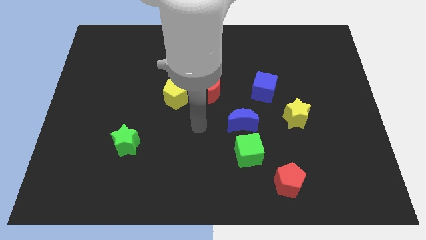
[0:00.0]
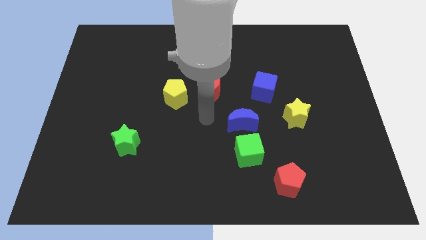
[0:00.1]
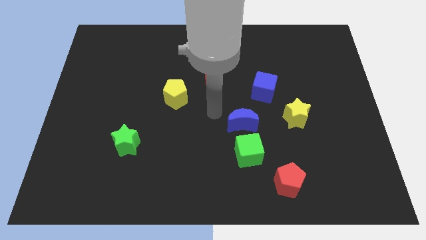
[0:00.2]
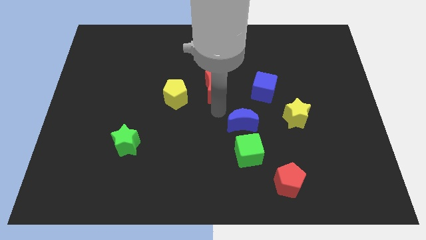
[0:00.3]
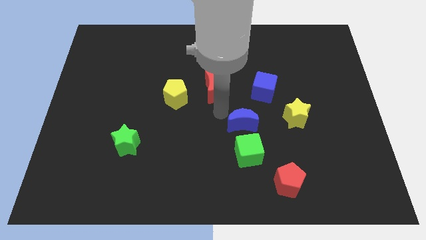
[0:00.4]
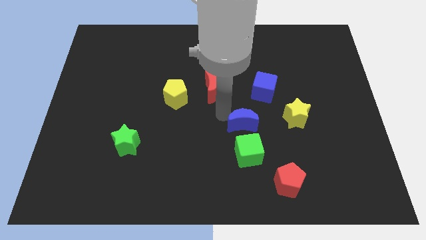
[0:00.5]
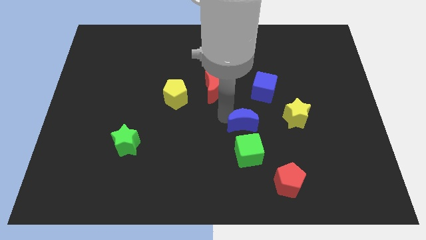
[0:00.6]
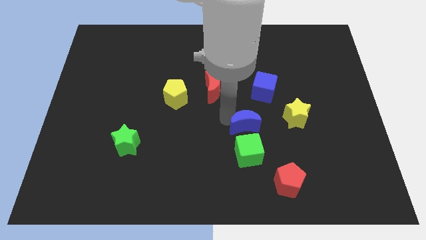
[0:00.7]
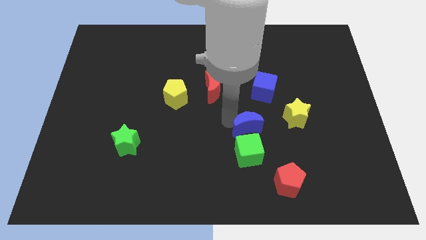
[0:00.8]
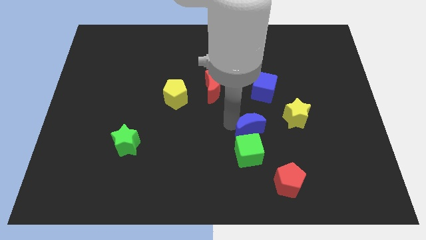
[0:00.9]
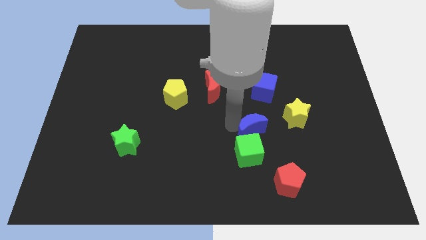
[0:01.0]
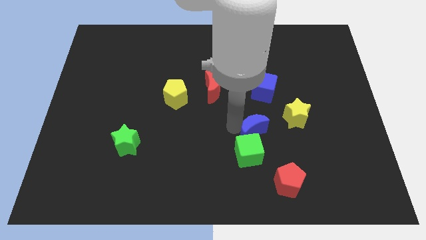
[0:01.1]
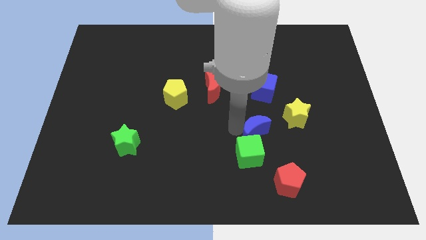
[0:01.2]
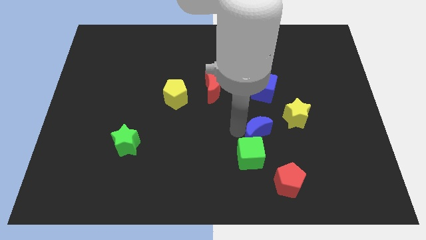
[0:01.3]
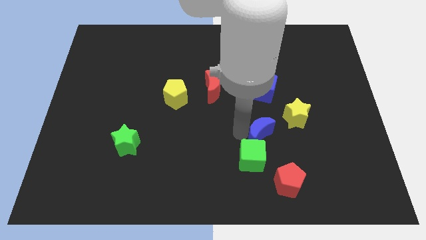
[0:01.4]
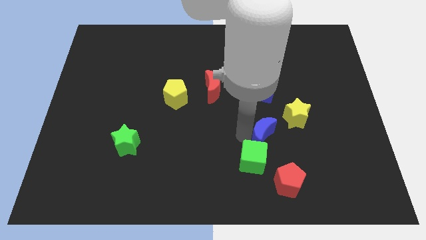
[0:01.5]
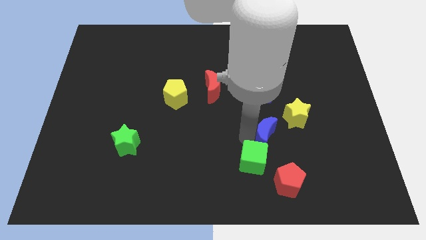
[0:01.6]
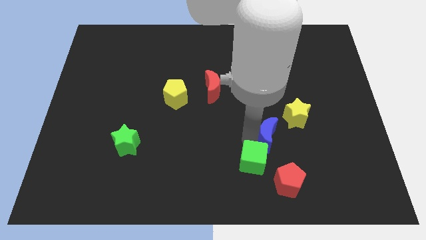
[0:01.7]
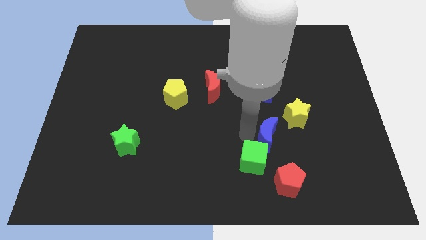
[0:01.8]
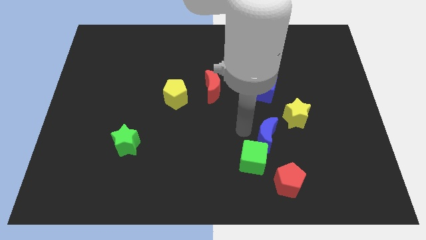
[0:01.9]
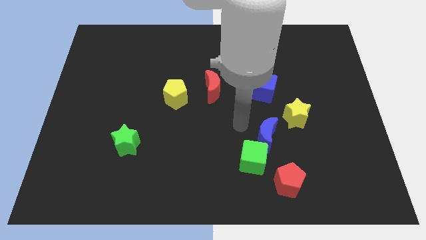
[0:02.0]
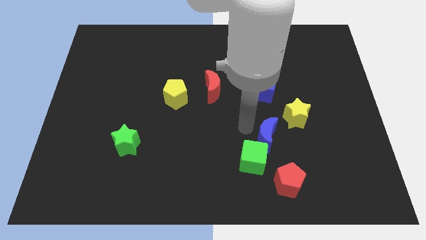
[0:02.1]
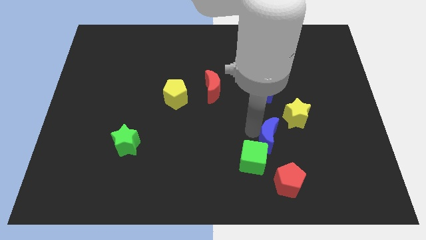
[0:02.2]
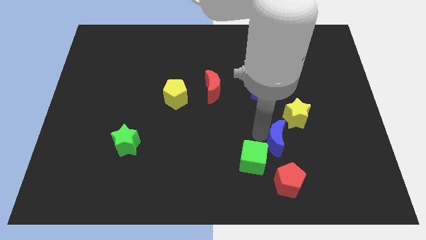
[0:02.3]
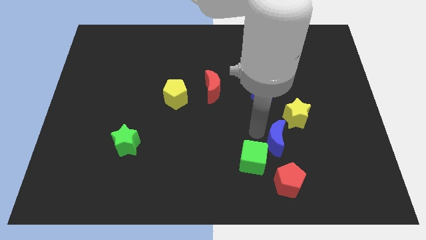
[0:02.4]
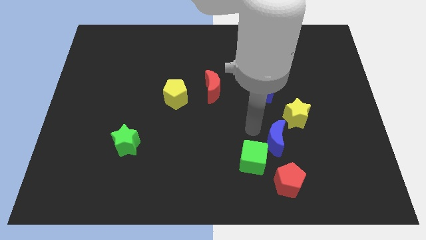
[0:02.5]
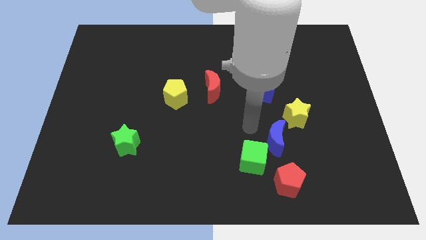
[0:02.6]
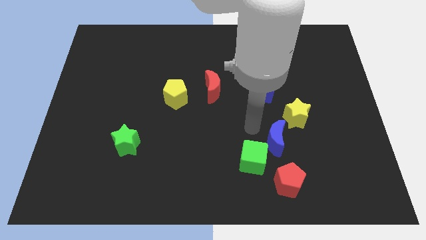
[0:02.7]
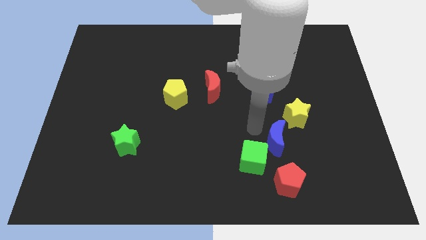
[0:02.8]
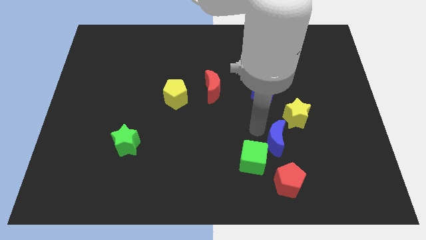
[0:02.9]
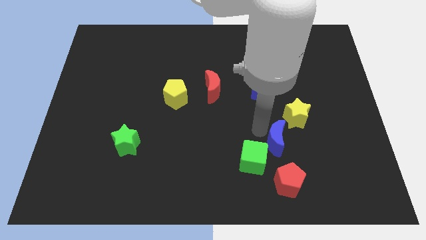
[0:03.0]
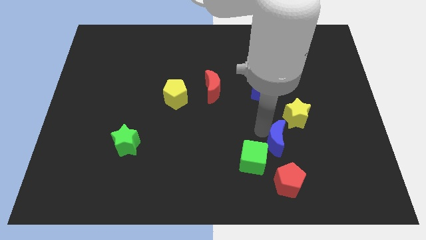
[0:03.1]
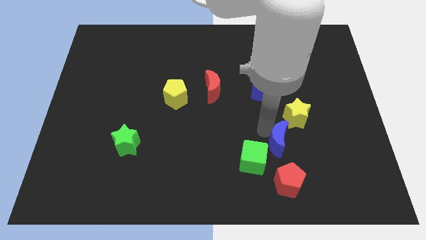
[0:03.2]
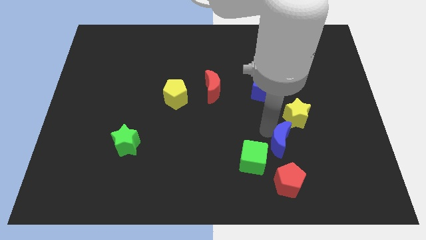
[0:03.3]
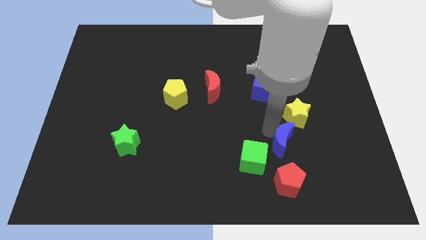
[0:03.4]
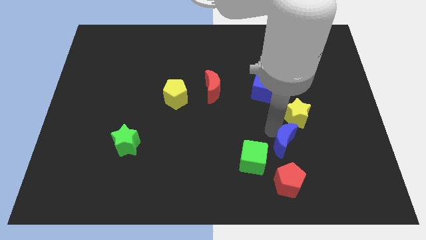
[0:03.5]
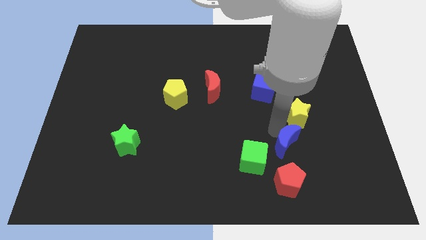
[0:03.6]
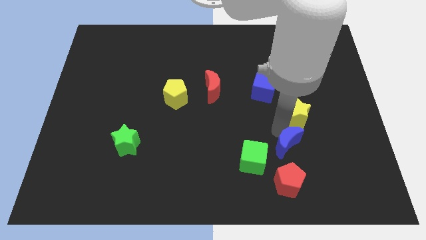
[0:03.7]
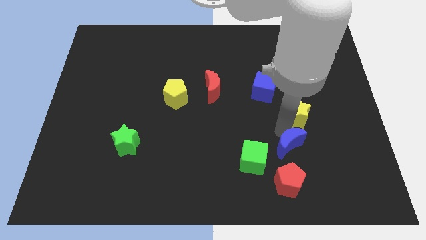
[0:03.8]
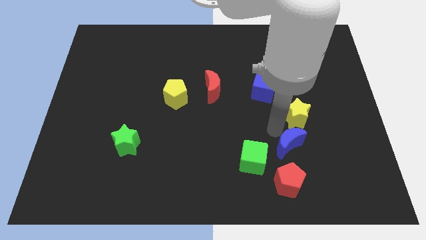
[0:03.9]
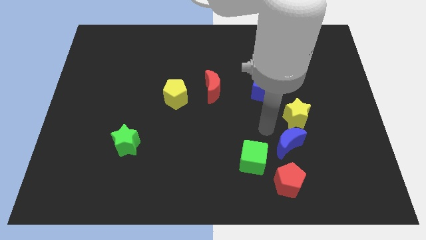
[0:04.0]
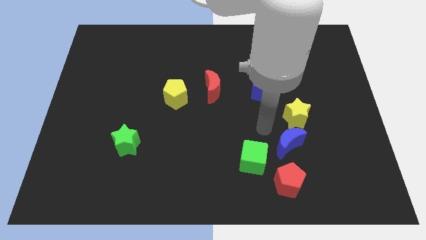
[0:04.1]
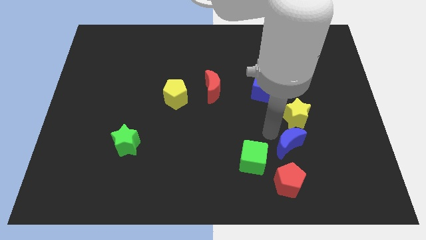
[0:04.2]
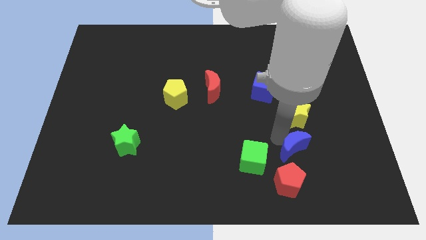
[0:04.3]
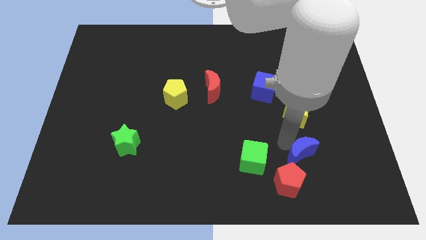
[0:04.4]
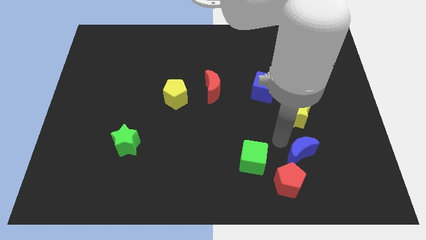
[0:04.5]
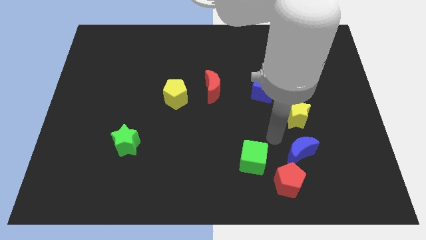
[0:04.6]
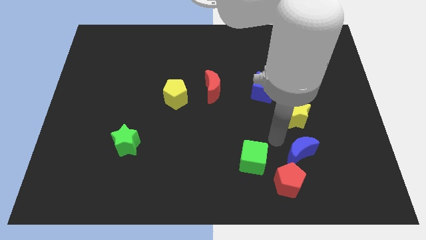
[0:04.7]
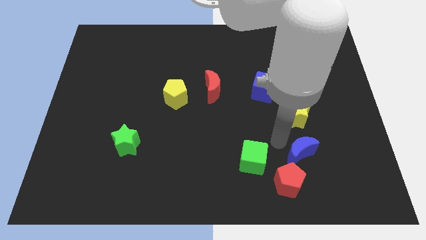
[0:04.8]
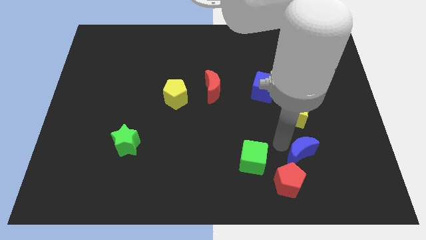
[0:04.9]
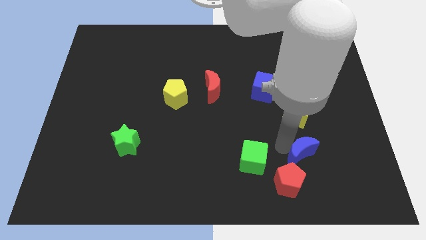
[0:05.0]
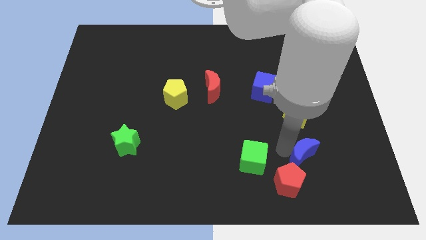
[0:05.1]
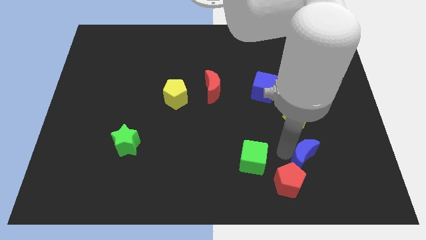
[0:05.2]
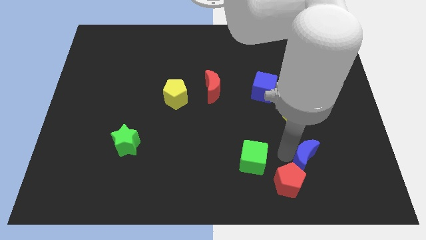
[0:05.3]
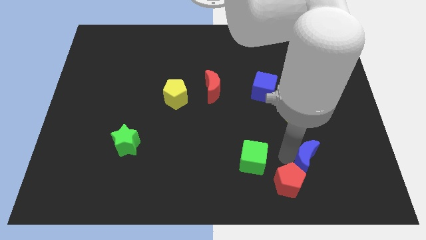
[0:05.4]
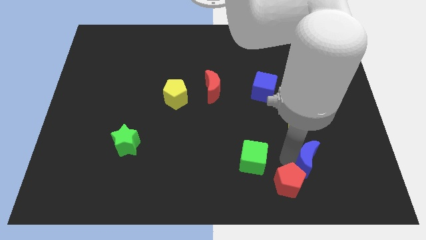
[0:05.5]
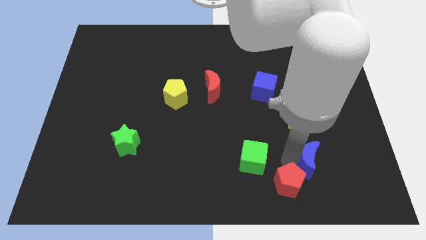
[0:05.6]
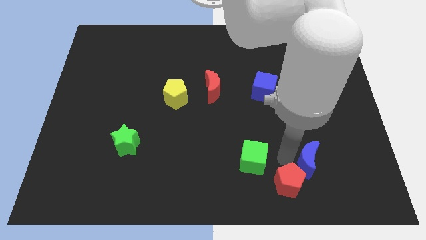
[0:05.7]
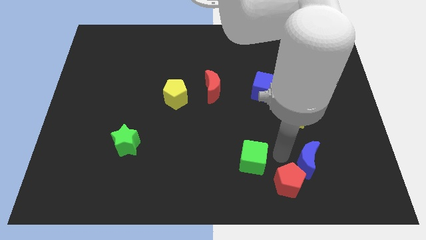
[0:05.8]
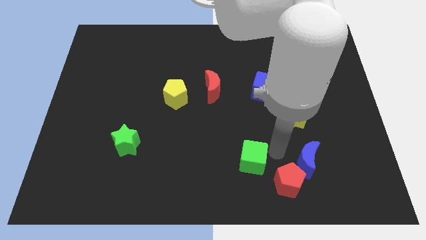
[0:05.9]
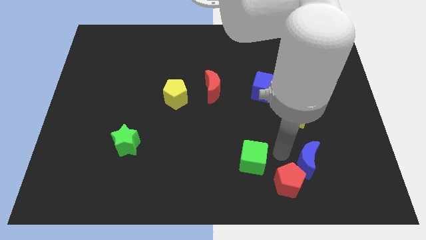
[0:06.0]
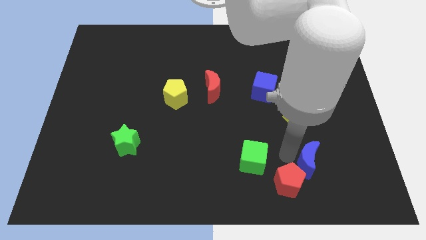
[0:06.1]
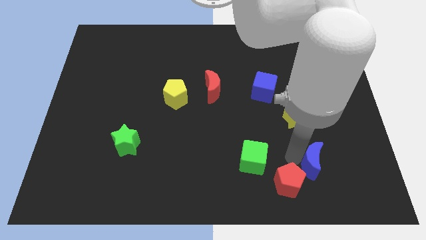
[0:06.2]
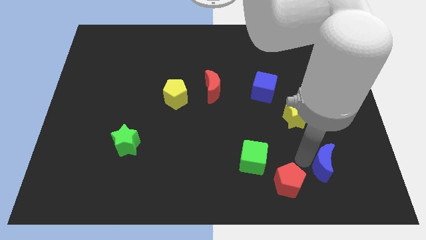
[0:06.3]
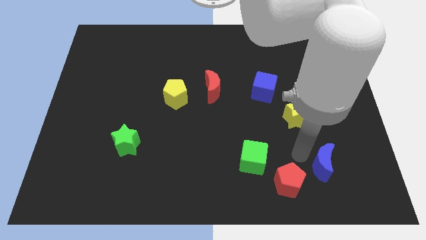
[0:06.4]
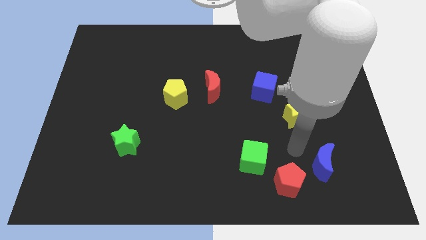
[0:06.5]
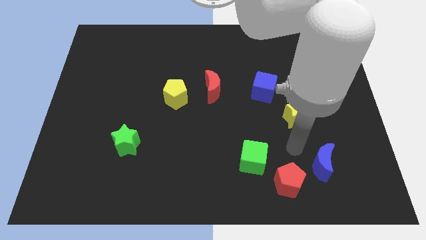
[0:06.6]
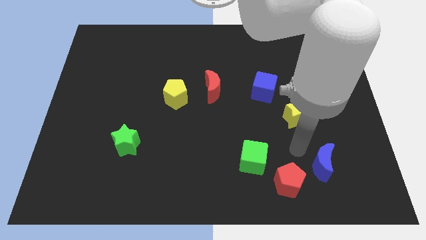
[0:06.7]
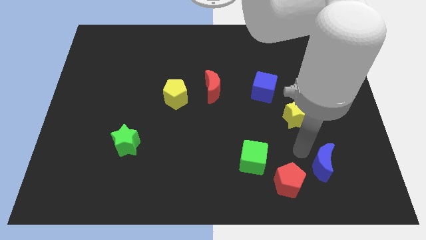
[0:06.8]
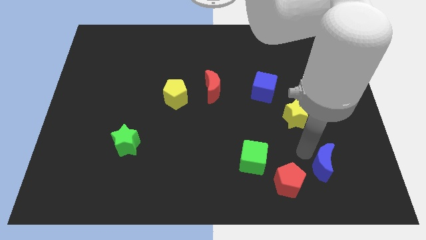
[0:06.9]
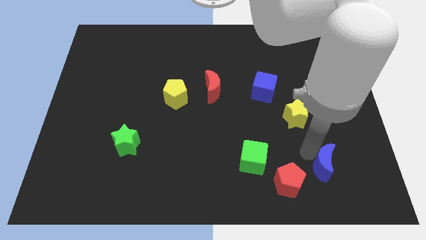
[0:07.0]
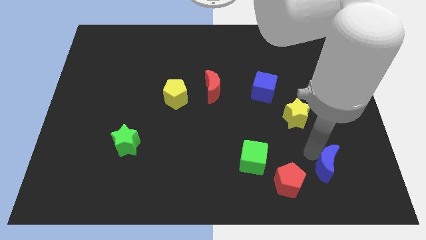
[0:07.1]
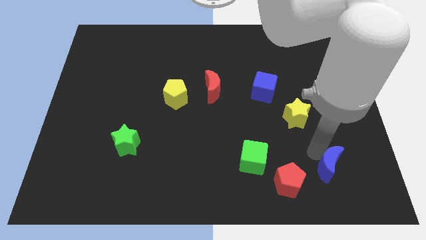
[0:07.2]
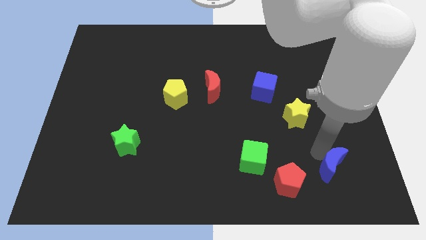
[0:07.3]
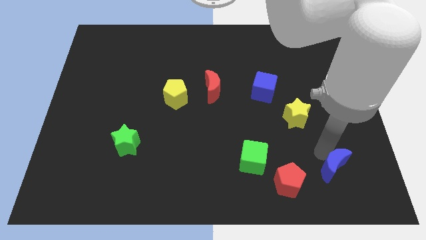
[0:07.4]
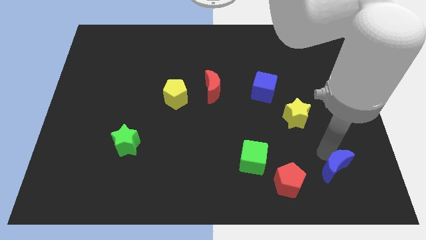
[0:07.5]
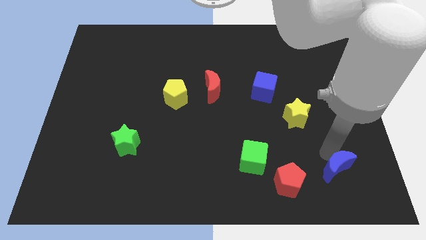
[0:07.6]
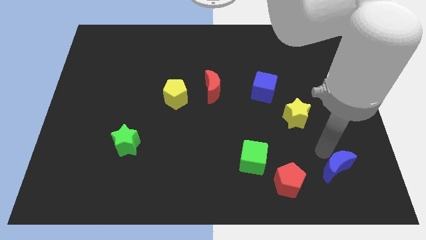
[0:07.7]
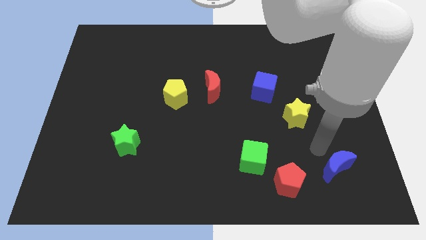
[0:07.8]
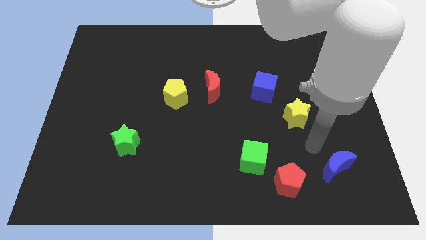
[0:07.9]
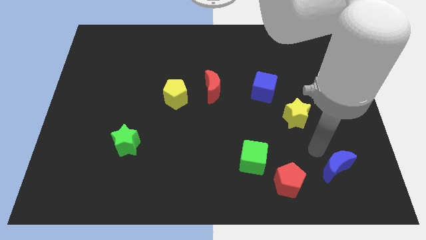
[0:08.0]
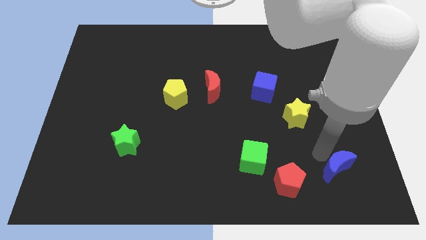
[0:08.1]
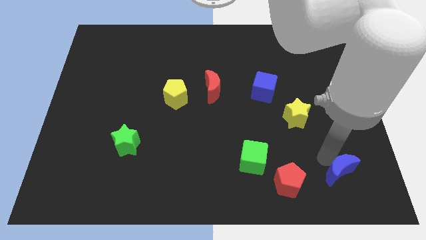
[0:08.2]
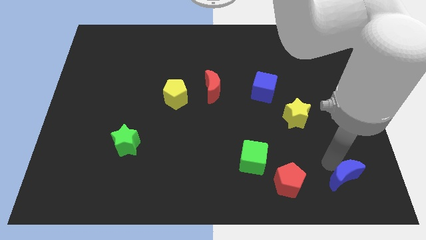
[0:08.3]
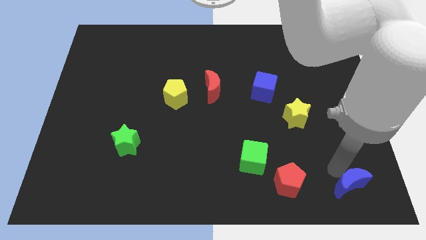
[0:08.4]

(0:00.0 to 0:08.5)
slide the blue moon to the bottom right corner
